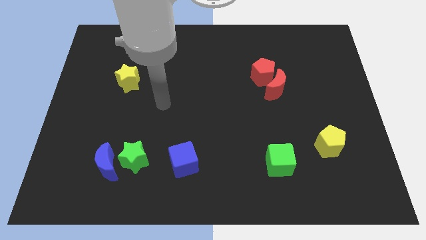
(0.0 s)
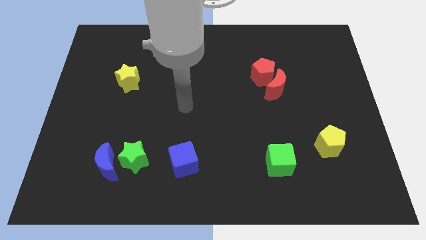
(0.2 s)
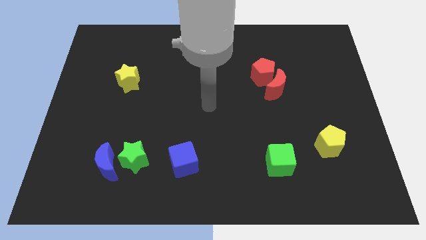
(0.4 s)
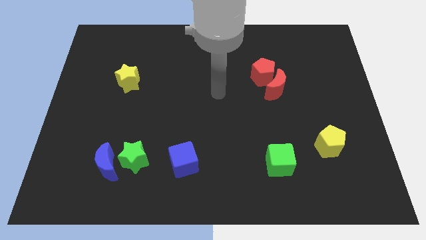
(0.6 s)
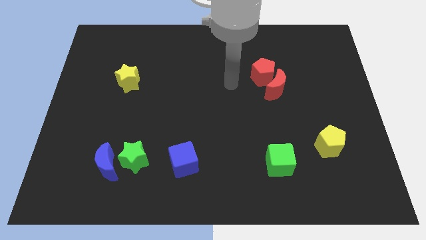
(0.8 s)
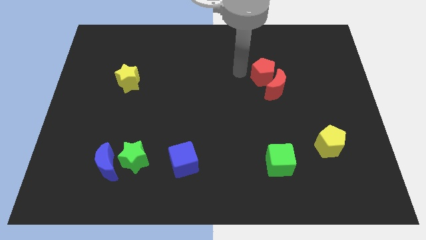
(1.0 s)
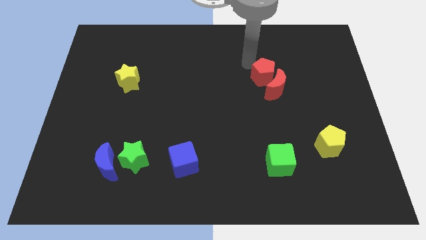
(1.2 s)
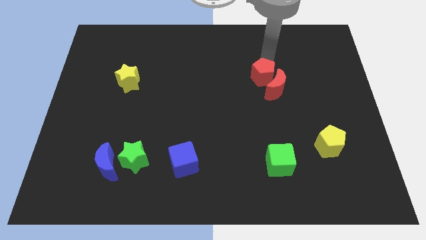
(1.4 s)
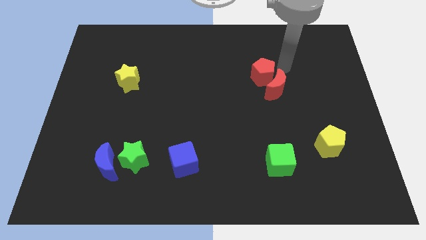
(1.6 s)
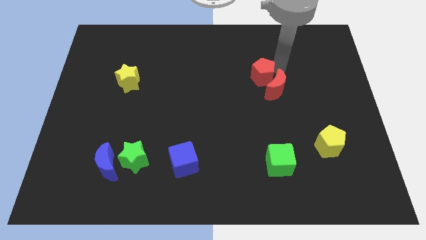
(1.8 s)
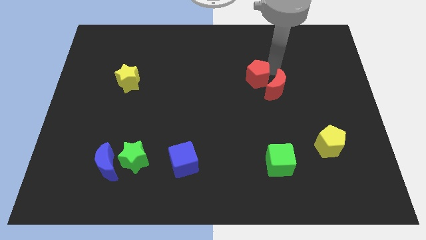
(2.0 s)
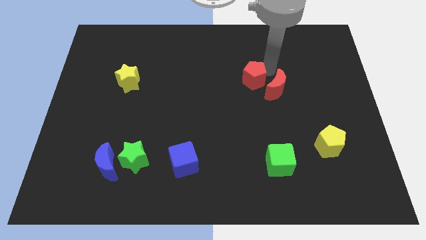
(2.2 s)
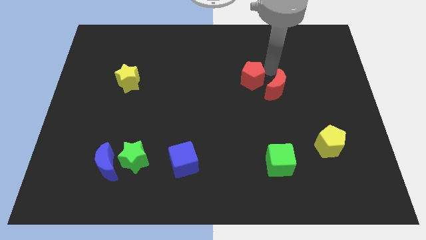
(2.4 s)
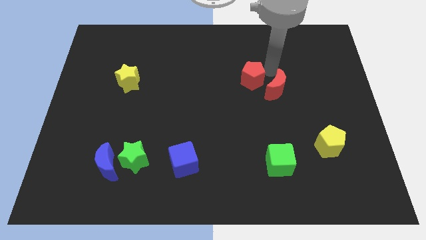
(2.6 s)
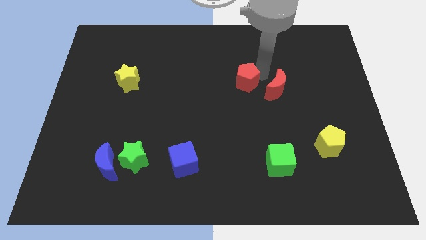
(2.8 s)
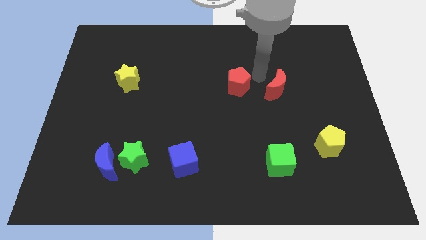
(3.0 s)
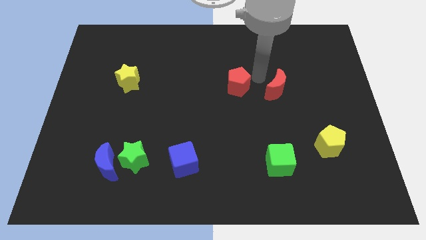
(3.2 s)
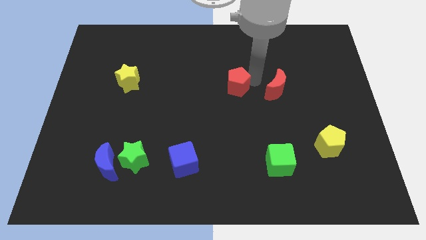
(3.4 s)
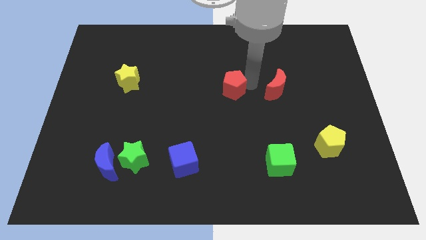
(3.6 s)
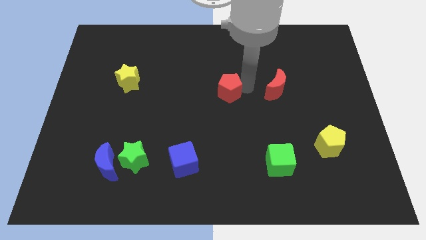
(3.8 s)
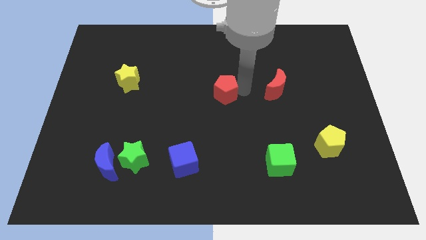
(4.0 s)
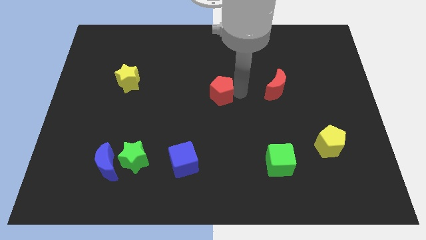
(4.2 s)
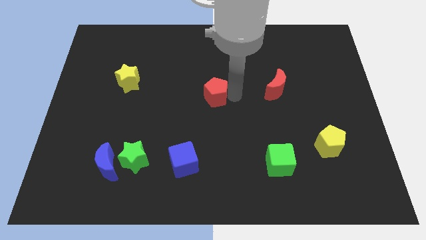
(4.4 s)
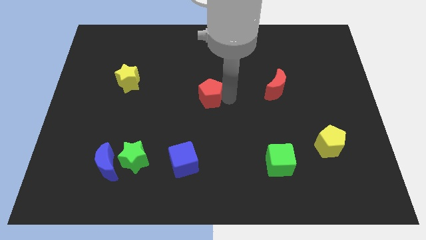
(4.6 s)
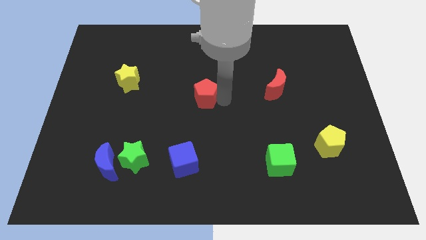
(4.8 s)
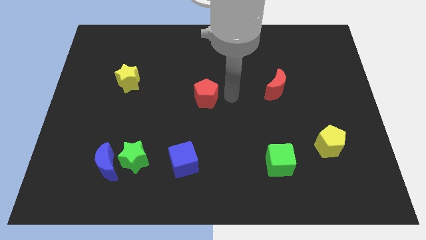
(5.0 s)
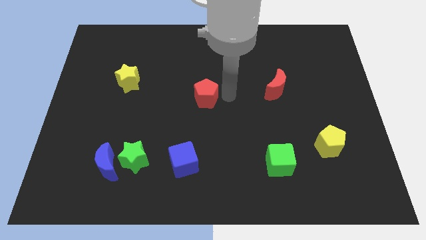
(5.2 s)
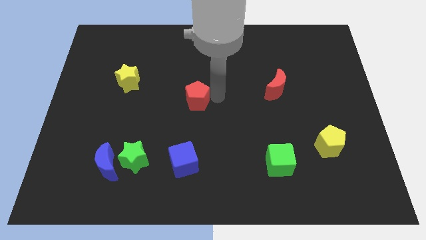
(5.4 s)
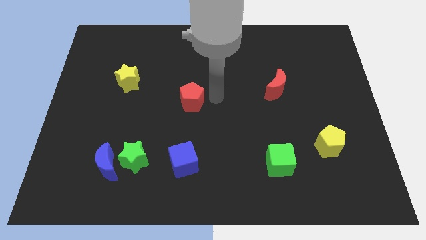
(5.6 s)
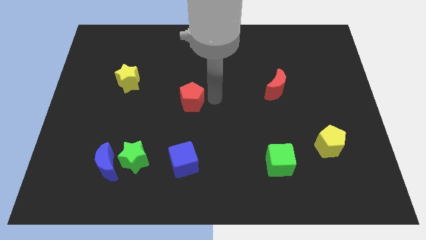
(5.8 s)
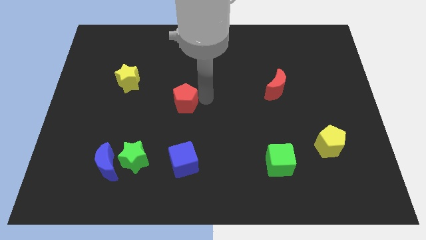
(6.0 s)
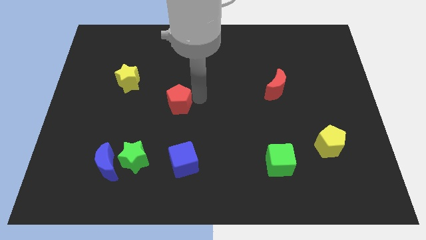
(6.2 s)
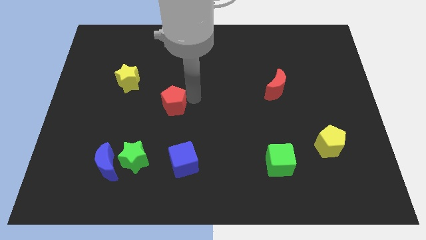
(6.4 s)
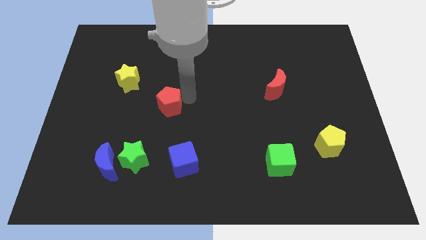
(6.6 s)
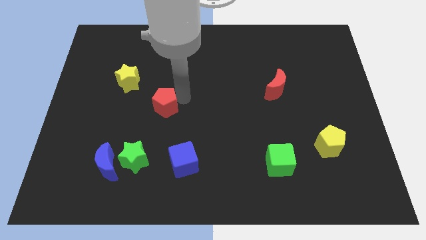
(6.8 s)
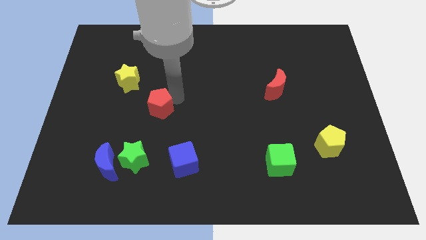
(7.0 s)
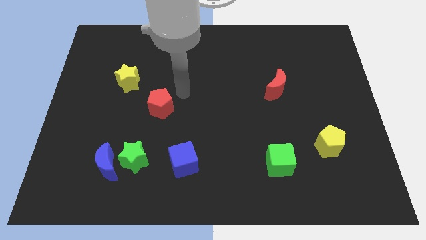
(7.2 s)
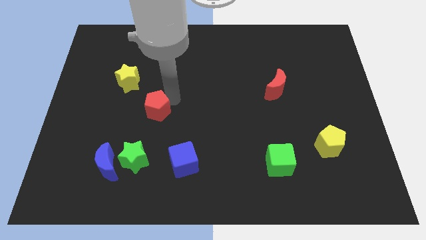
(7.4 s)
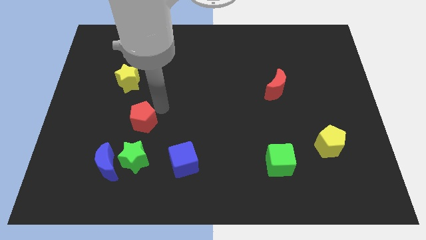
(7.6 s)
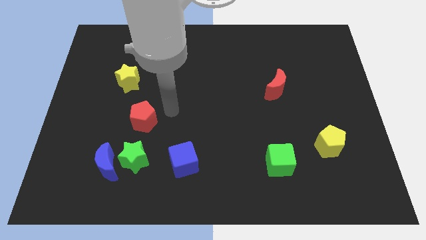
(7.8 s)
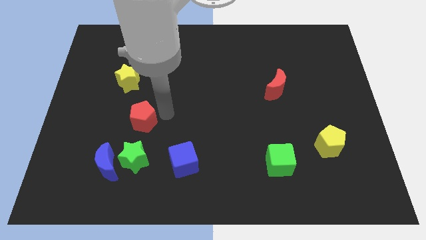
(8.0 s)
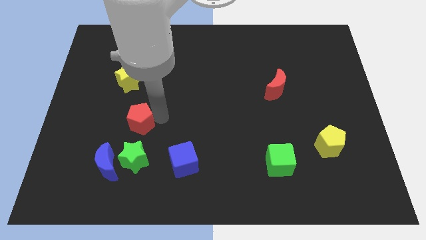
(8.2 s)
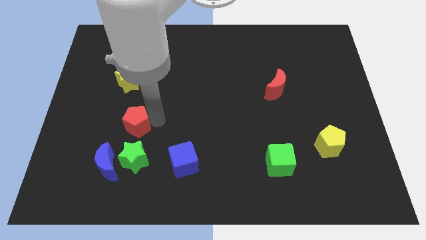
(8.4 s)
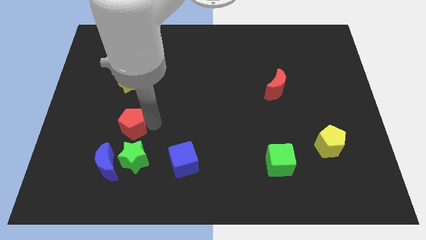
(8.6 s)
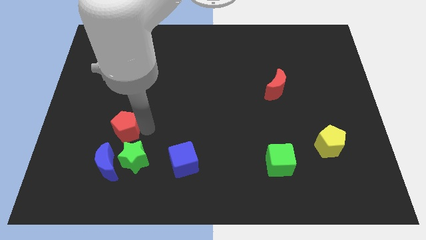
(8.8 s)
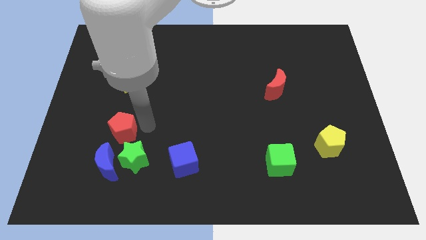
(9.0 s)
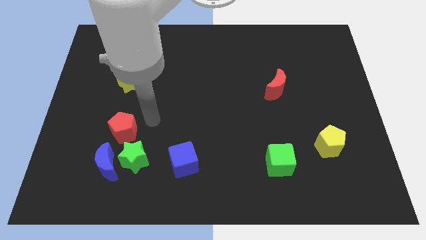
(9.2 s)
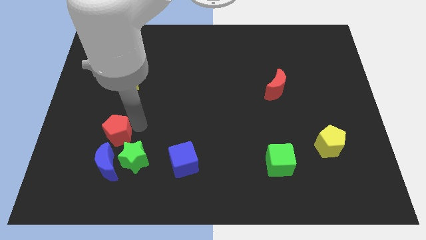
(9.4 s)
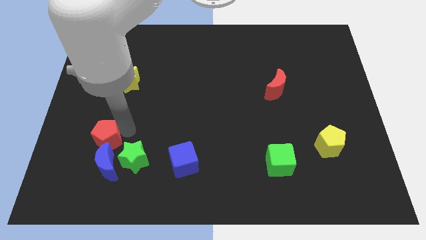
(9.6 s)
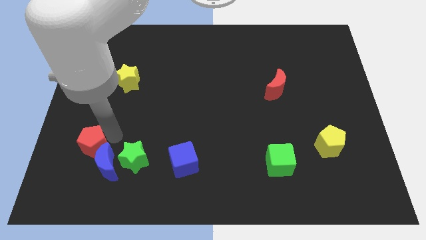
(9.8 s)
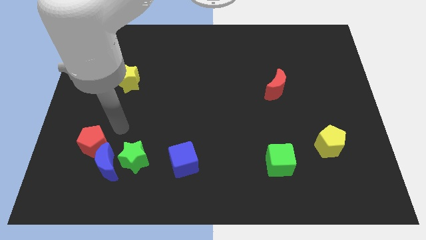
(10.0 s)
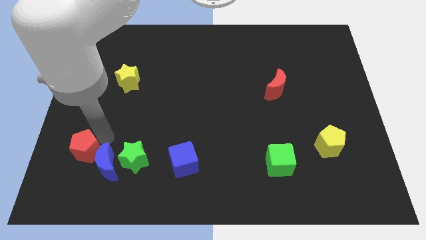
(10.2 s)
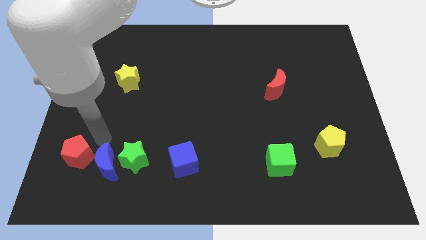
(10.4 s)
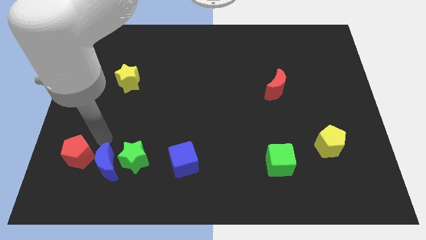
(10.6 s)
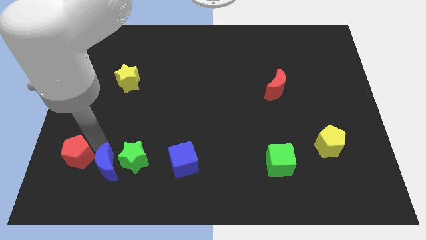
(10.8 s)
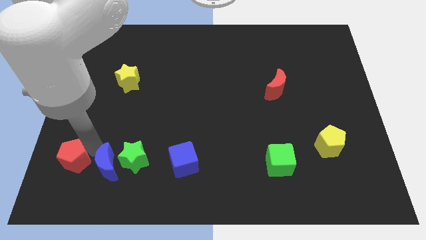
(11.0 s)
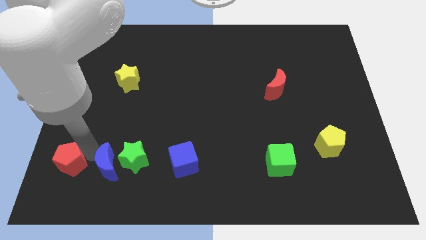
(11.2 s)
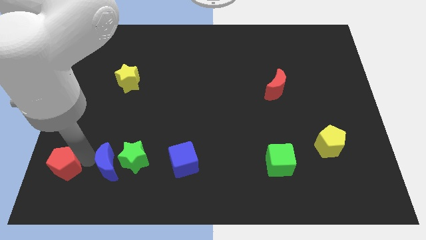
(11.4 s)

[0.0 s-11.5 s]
move the red pentagon to the bottom left of the board

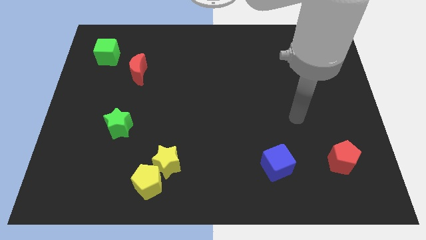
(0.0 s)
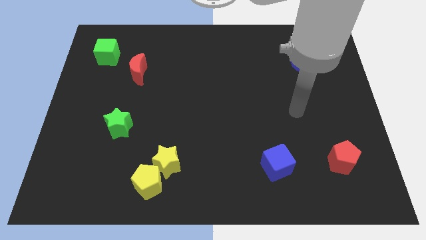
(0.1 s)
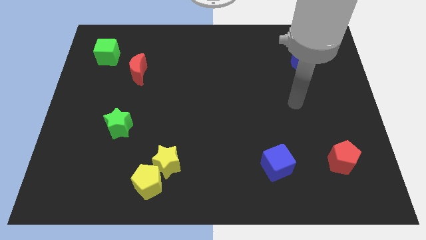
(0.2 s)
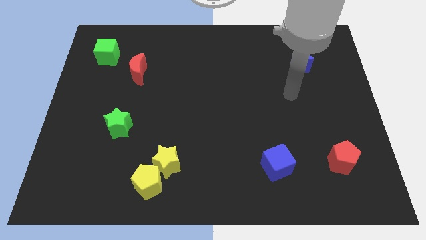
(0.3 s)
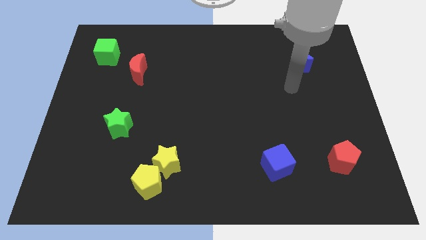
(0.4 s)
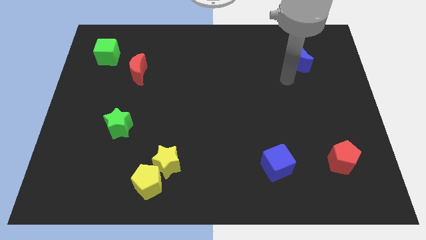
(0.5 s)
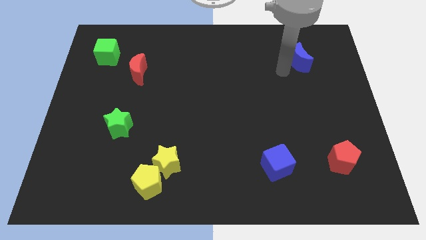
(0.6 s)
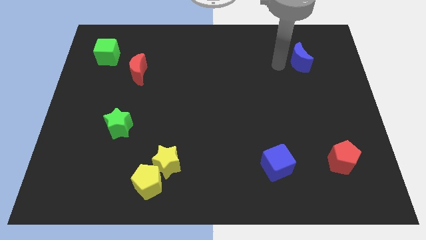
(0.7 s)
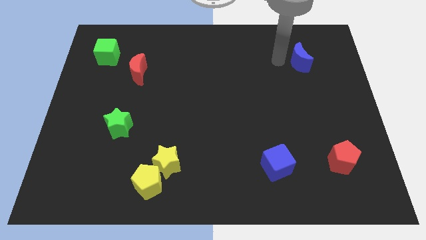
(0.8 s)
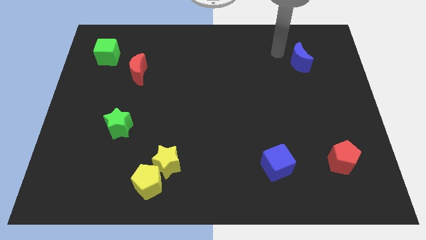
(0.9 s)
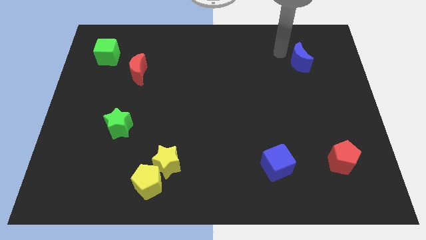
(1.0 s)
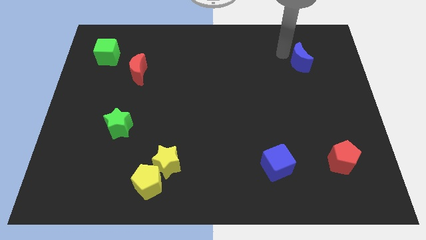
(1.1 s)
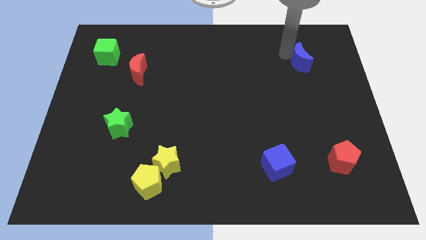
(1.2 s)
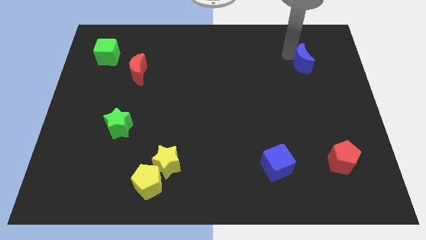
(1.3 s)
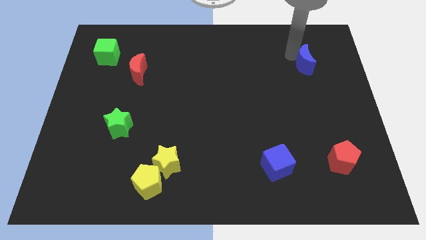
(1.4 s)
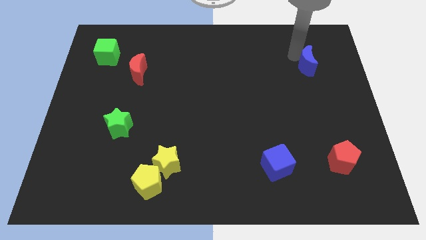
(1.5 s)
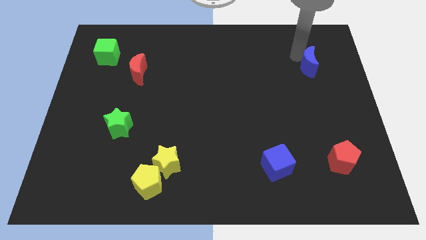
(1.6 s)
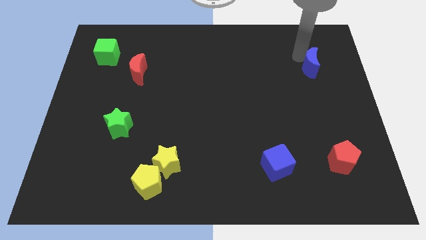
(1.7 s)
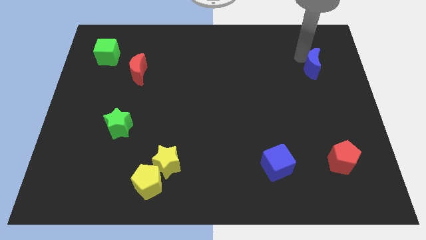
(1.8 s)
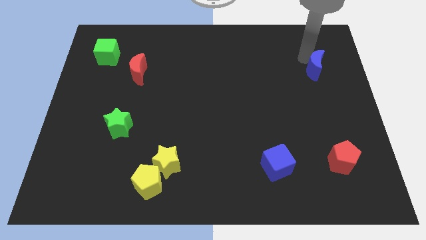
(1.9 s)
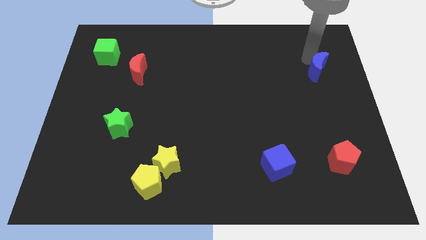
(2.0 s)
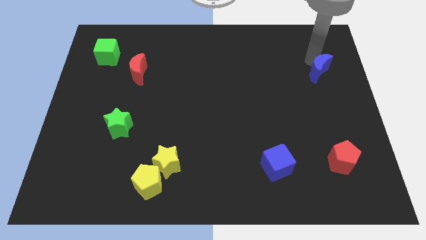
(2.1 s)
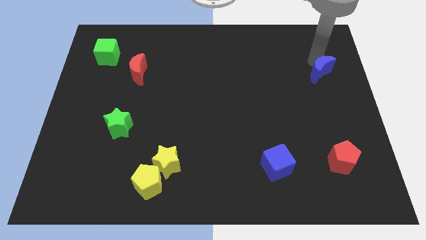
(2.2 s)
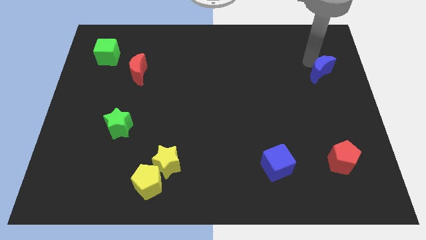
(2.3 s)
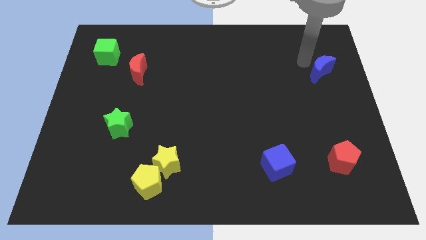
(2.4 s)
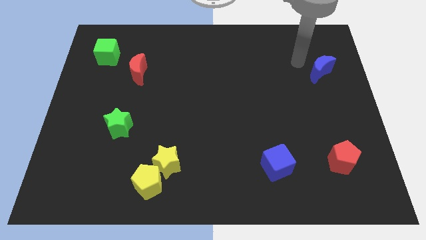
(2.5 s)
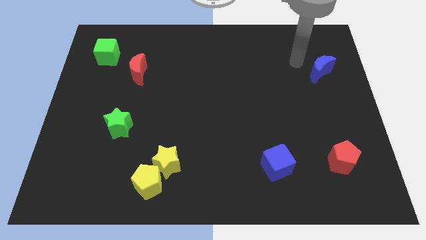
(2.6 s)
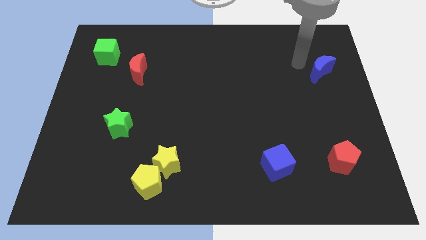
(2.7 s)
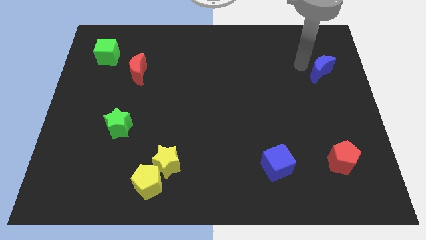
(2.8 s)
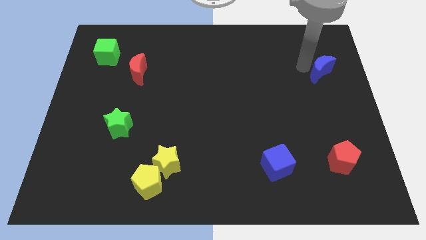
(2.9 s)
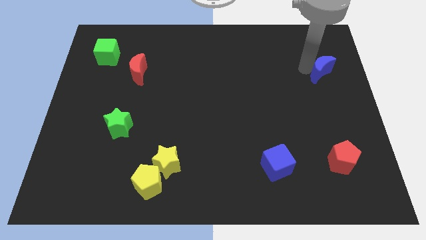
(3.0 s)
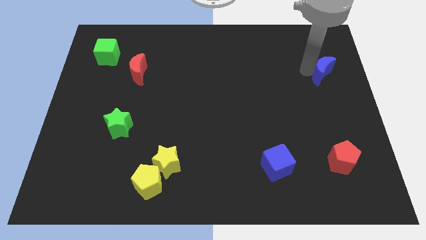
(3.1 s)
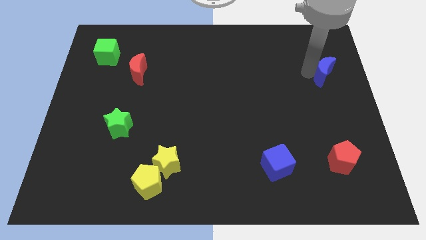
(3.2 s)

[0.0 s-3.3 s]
put the blue moon to the right side of the board
